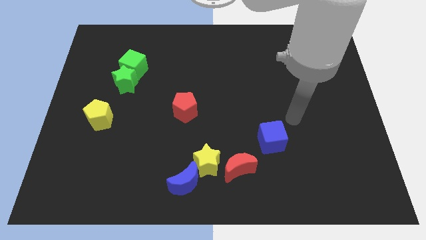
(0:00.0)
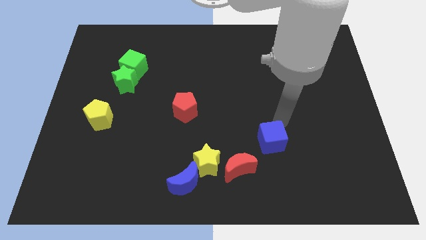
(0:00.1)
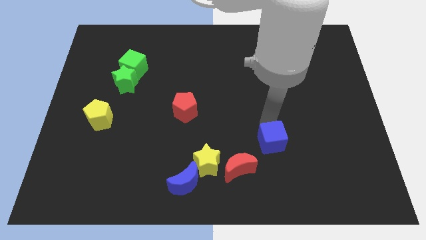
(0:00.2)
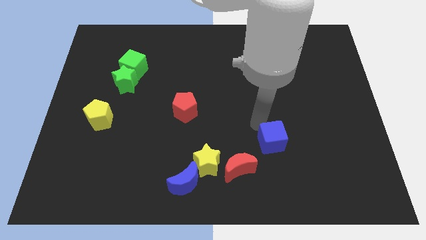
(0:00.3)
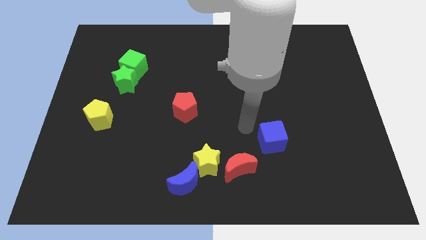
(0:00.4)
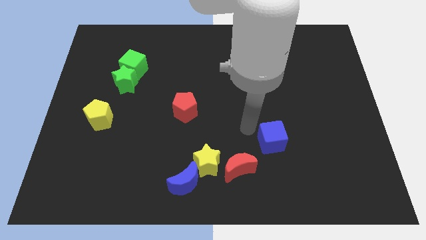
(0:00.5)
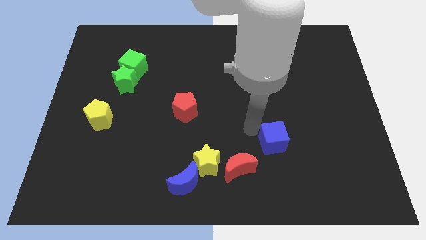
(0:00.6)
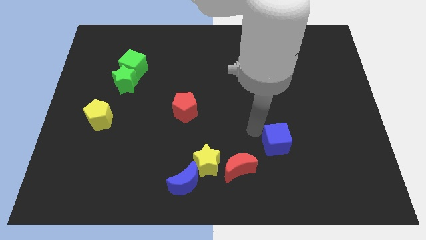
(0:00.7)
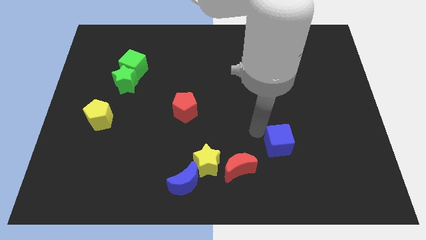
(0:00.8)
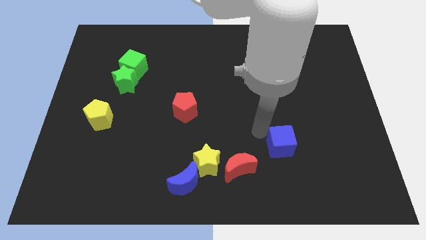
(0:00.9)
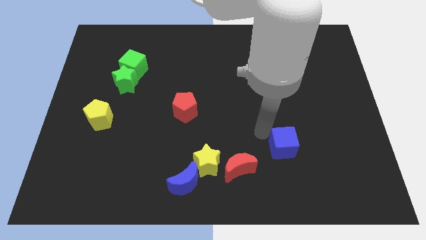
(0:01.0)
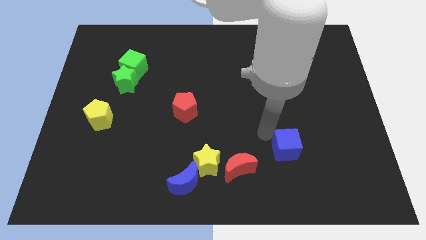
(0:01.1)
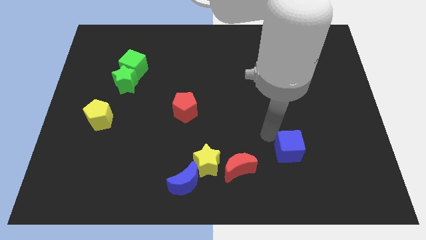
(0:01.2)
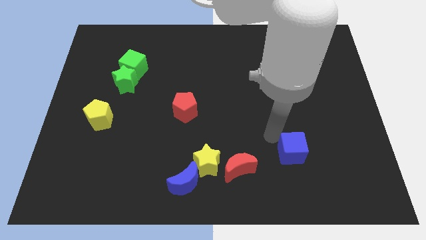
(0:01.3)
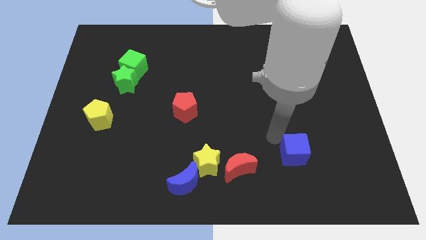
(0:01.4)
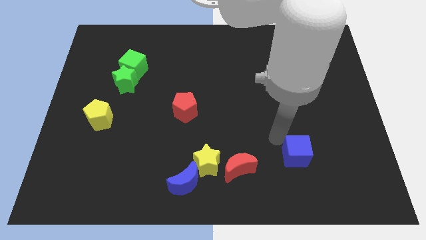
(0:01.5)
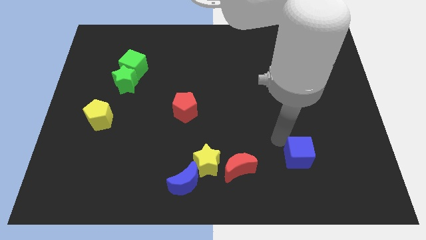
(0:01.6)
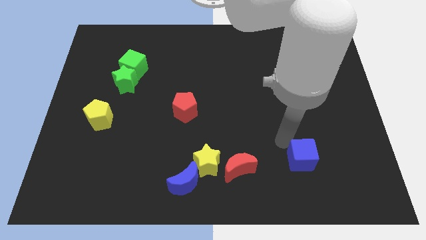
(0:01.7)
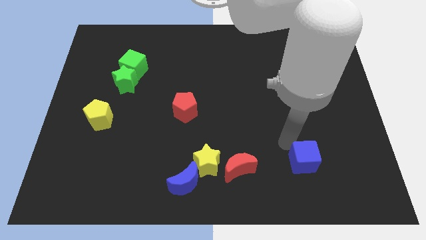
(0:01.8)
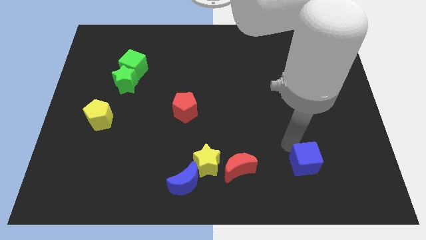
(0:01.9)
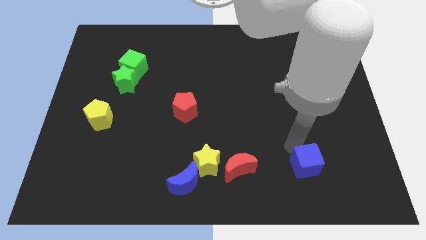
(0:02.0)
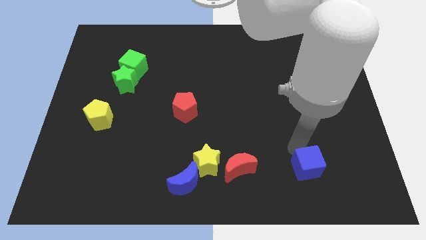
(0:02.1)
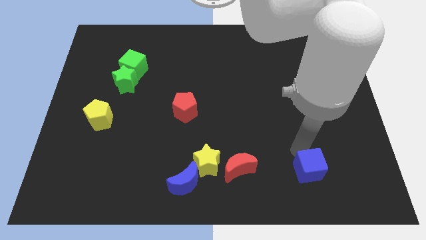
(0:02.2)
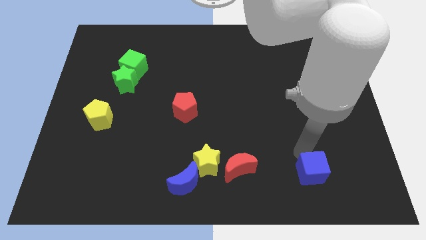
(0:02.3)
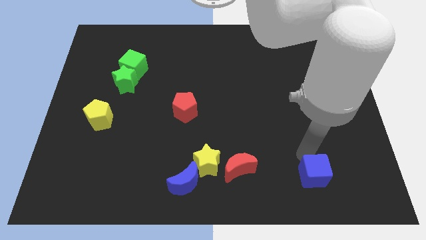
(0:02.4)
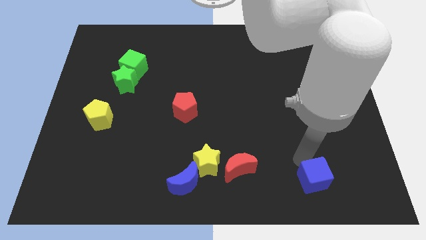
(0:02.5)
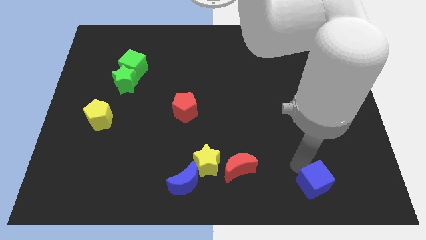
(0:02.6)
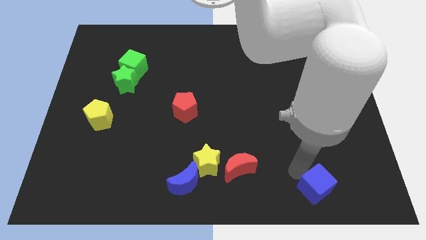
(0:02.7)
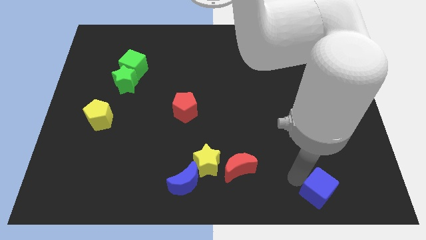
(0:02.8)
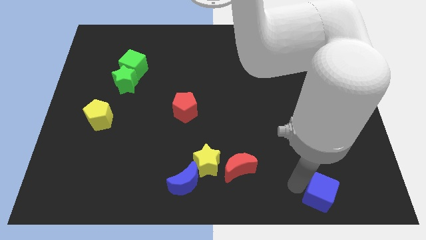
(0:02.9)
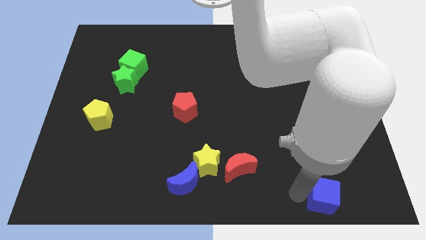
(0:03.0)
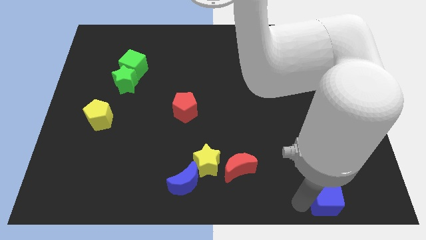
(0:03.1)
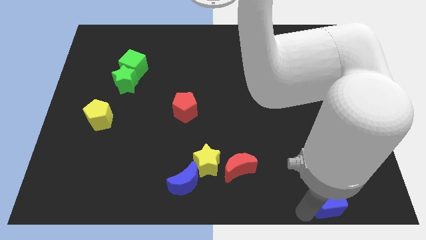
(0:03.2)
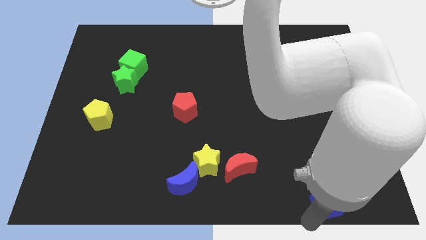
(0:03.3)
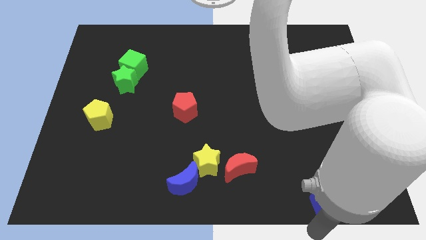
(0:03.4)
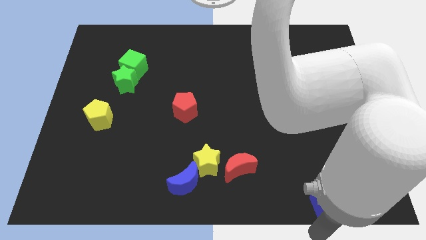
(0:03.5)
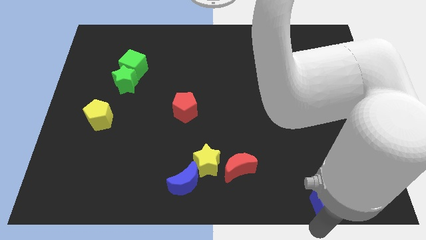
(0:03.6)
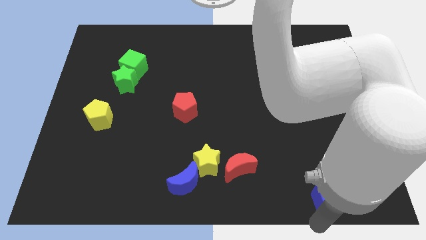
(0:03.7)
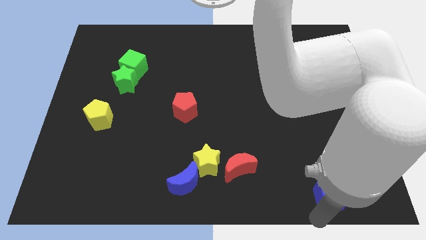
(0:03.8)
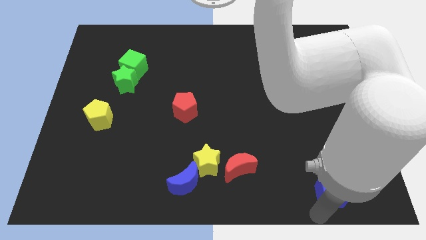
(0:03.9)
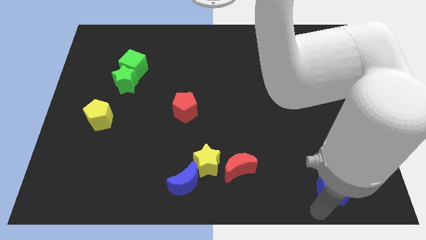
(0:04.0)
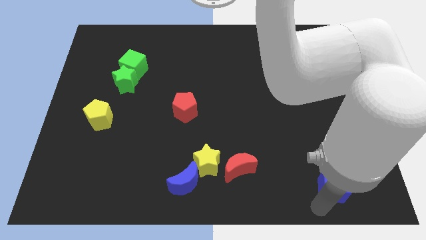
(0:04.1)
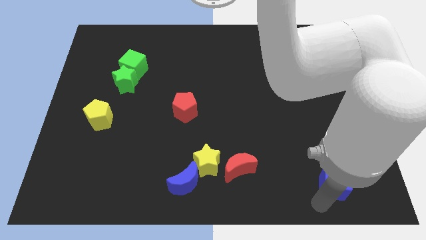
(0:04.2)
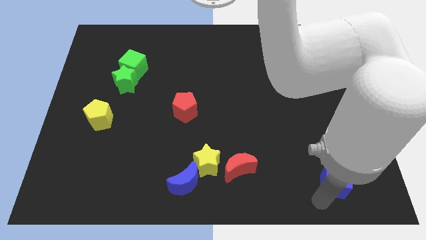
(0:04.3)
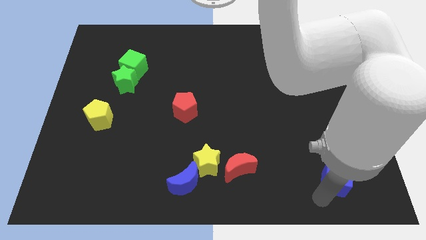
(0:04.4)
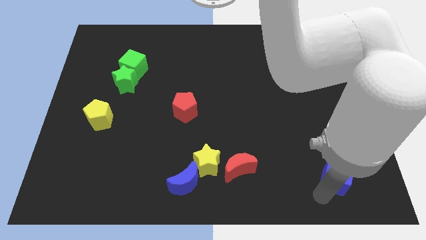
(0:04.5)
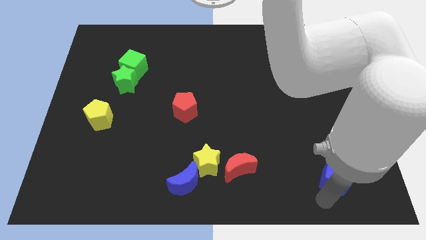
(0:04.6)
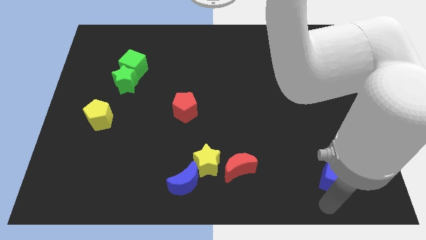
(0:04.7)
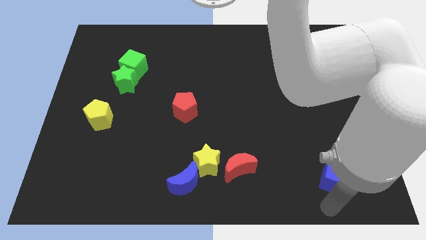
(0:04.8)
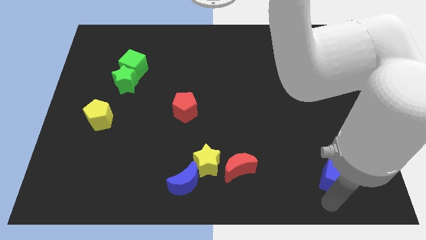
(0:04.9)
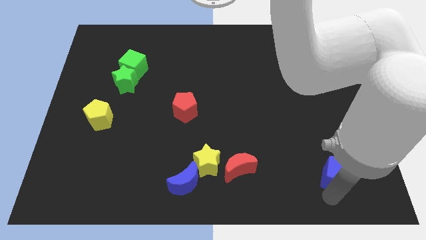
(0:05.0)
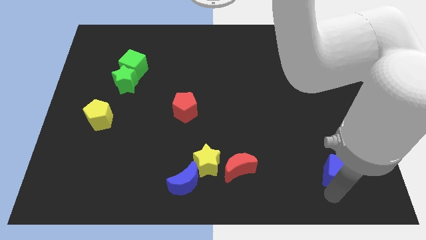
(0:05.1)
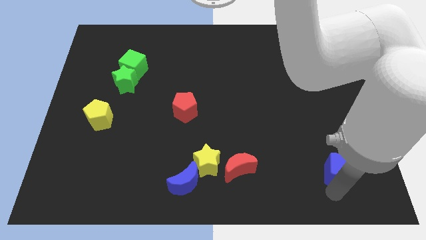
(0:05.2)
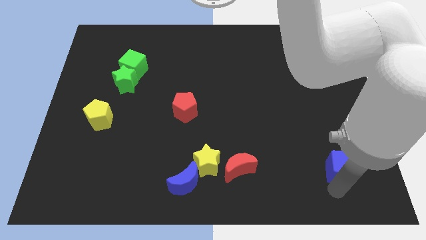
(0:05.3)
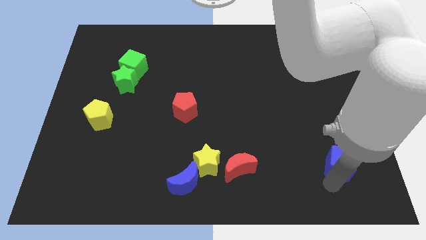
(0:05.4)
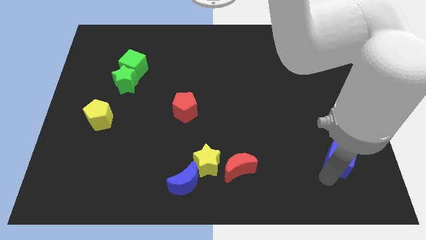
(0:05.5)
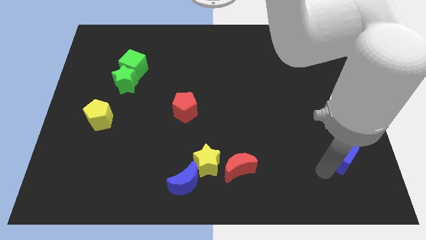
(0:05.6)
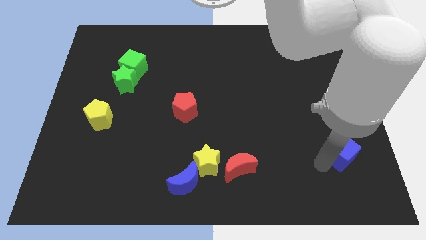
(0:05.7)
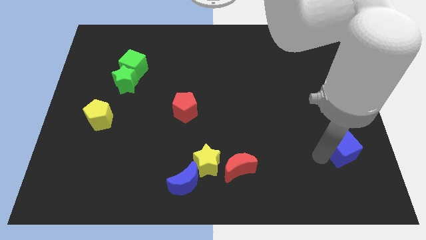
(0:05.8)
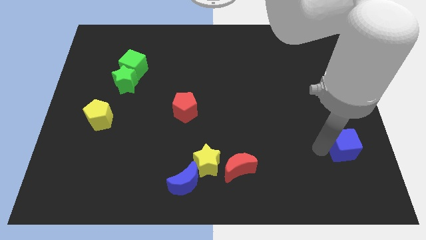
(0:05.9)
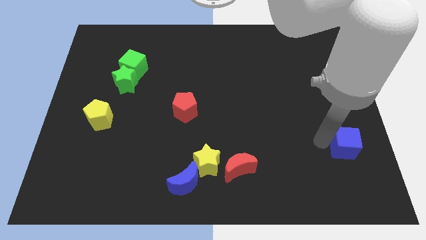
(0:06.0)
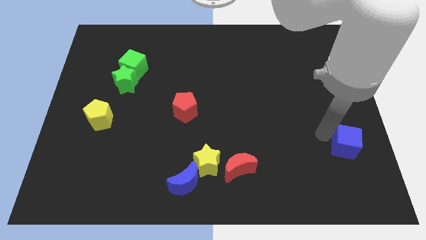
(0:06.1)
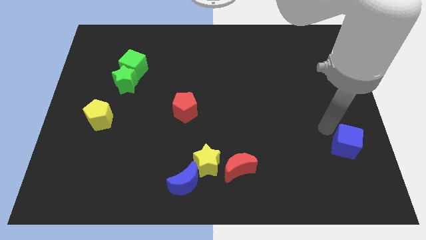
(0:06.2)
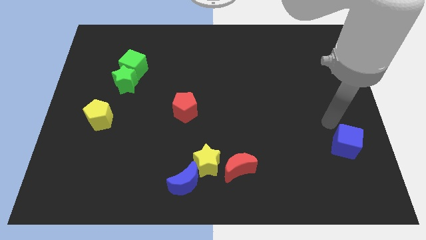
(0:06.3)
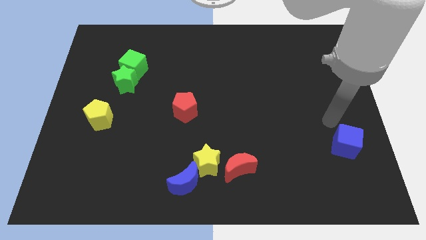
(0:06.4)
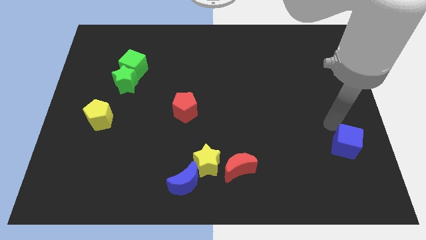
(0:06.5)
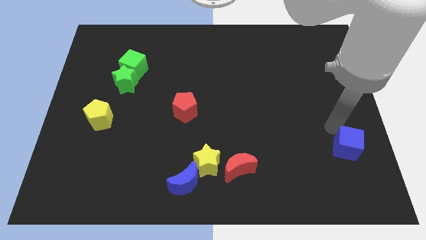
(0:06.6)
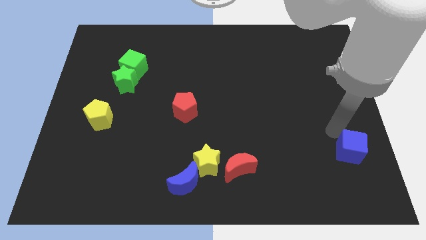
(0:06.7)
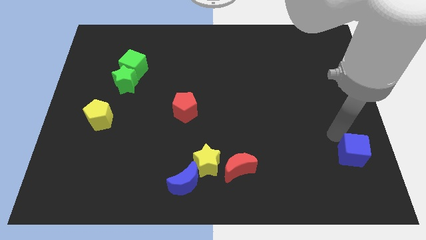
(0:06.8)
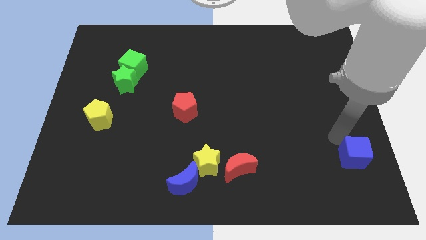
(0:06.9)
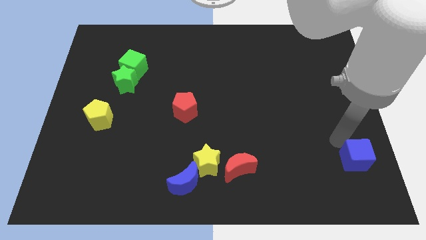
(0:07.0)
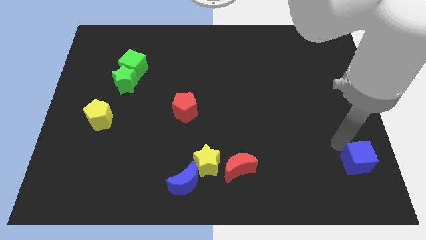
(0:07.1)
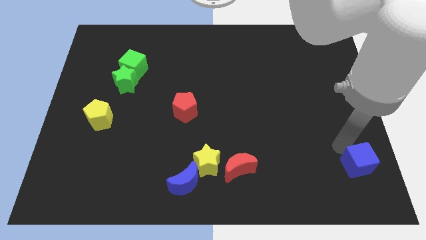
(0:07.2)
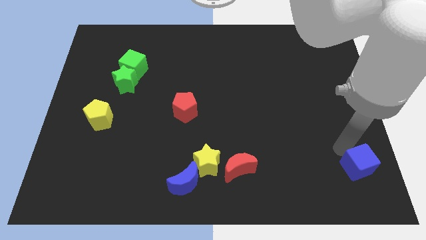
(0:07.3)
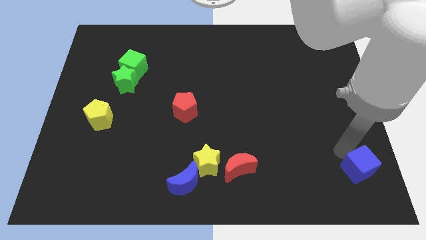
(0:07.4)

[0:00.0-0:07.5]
put the blue cube to the bottom right
